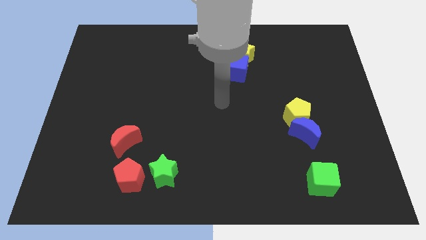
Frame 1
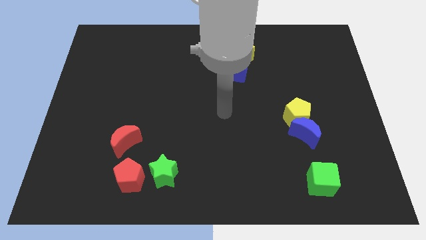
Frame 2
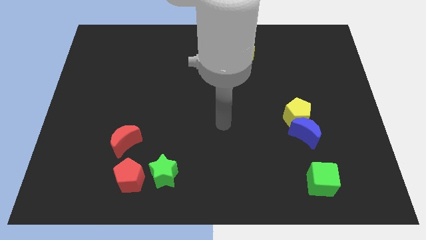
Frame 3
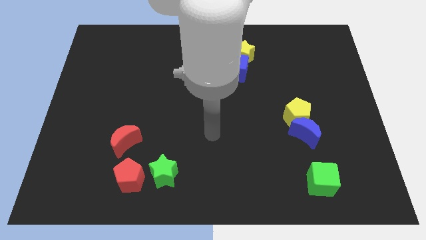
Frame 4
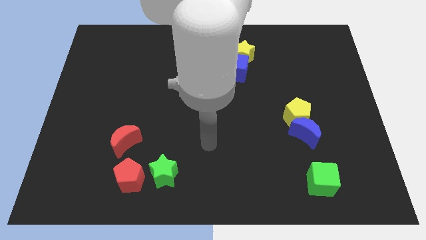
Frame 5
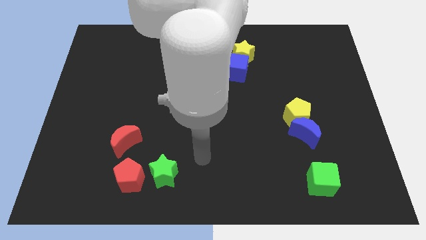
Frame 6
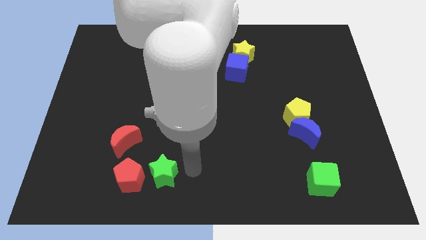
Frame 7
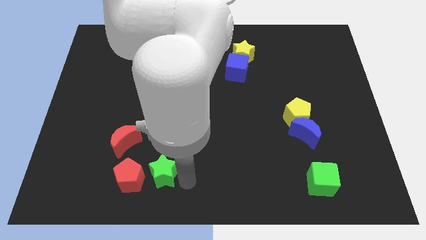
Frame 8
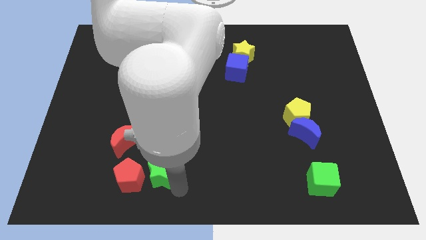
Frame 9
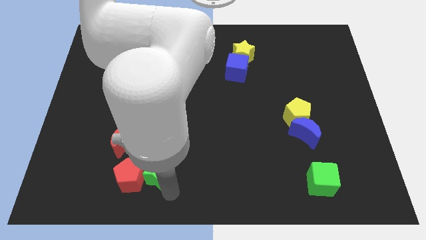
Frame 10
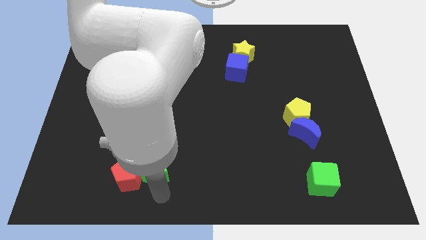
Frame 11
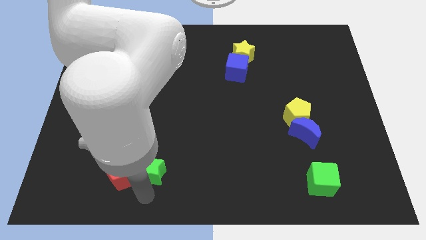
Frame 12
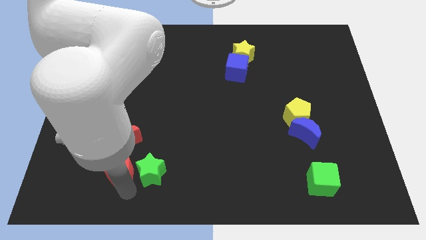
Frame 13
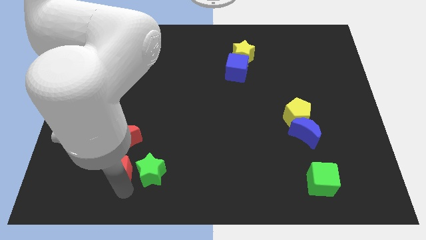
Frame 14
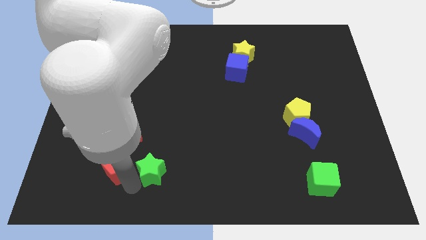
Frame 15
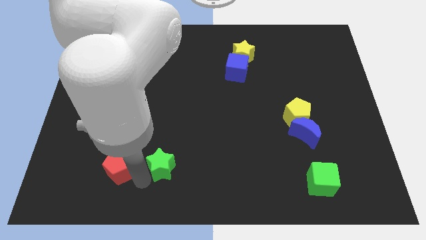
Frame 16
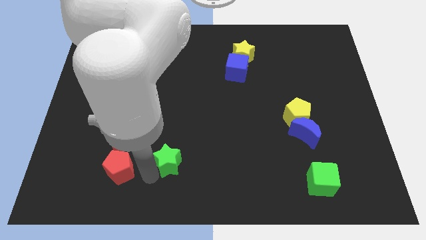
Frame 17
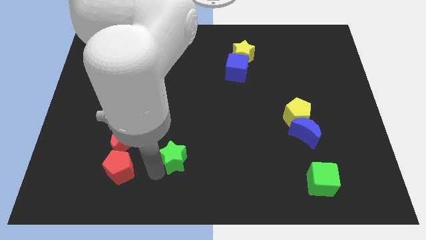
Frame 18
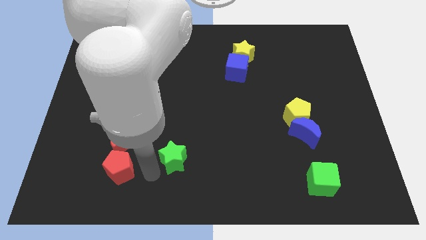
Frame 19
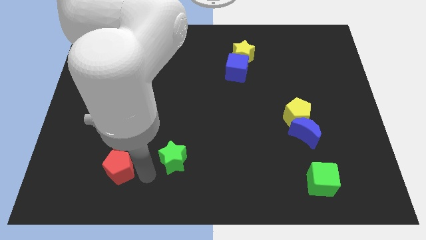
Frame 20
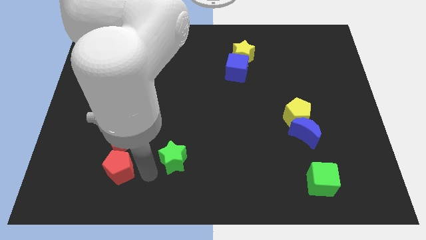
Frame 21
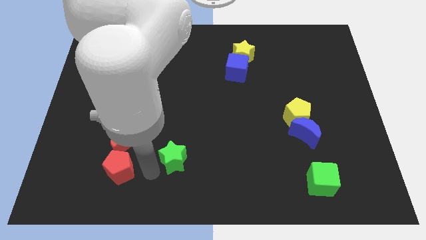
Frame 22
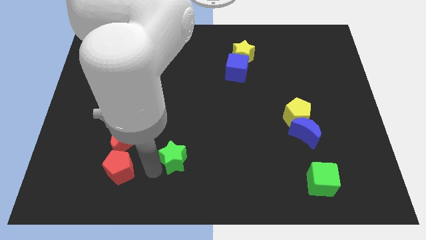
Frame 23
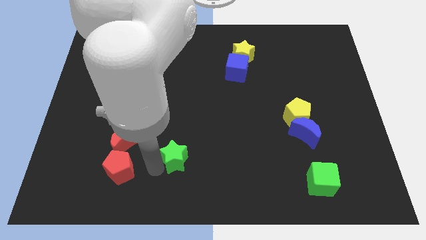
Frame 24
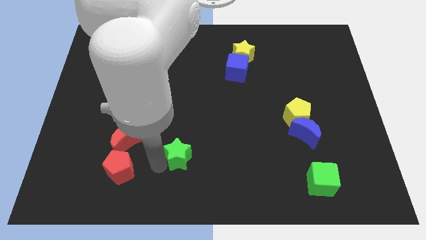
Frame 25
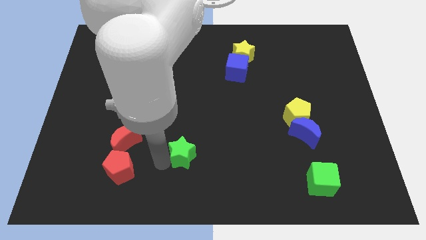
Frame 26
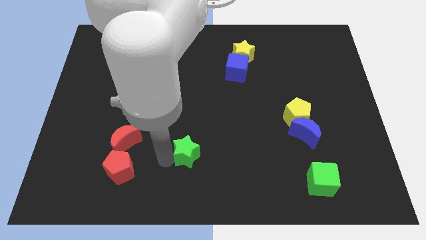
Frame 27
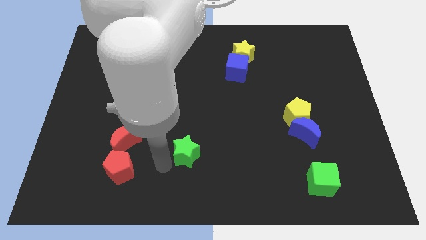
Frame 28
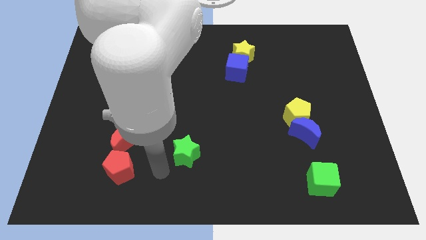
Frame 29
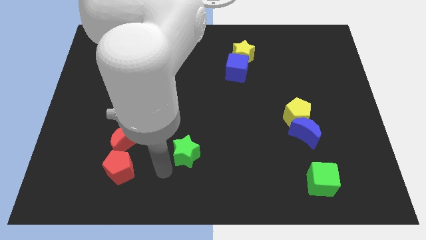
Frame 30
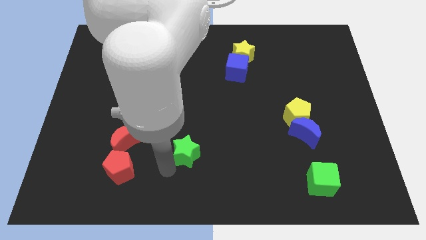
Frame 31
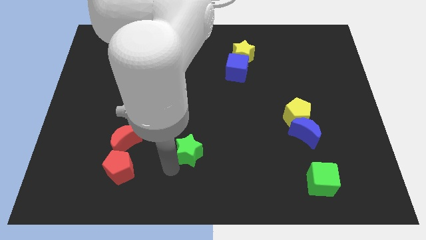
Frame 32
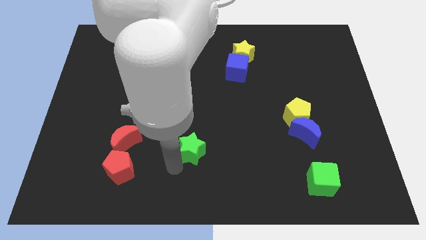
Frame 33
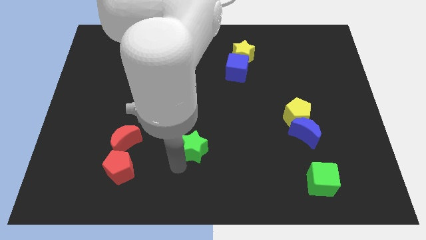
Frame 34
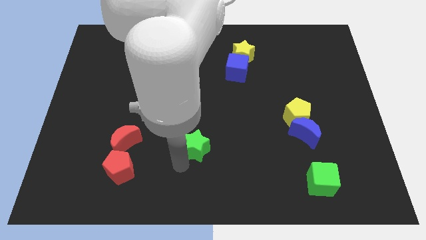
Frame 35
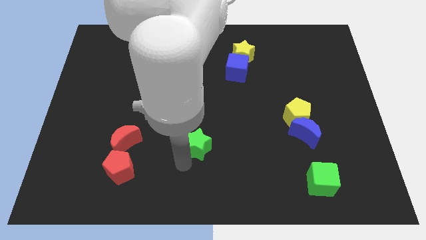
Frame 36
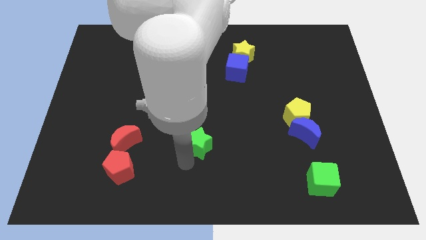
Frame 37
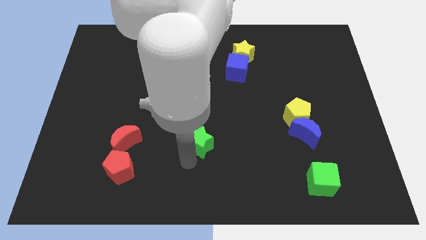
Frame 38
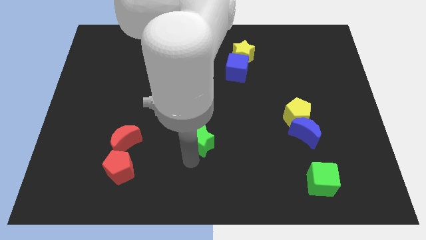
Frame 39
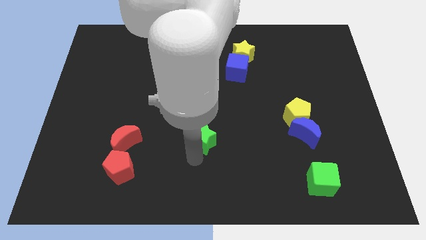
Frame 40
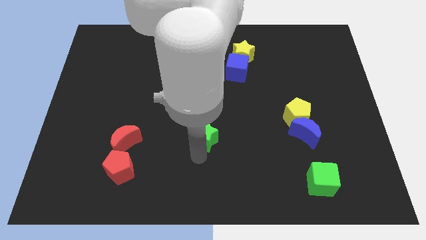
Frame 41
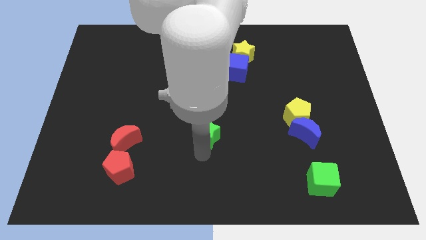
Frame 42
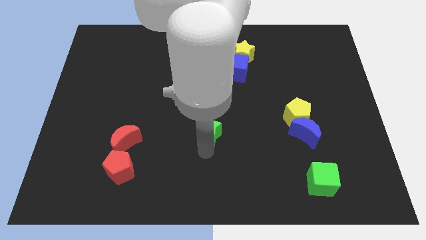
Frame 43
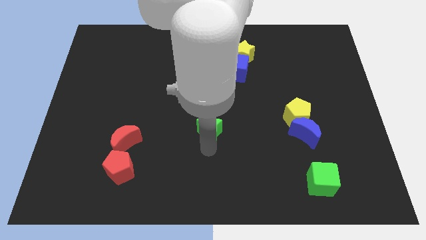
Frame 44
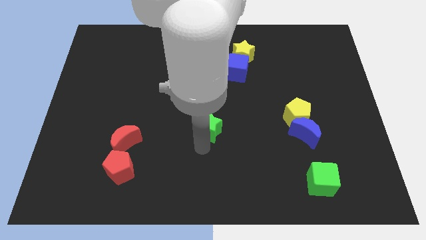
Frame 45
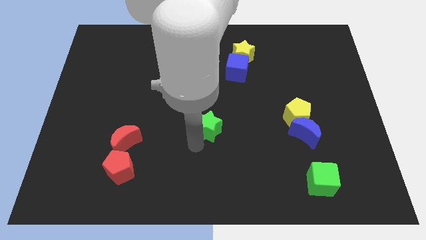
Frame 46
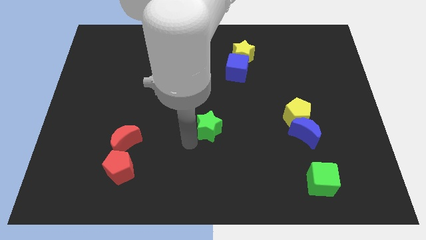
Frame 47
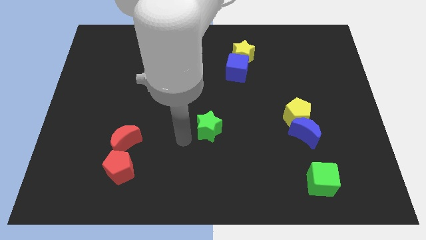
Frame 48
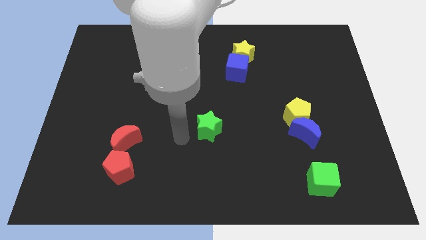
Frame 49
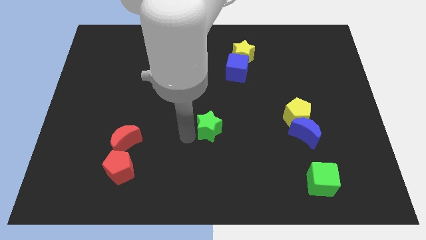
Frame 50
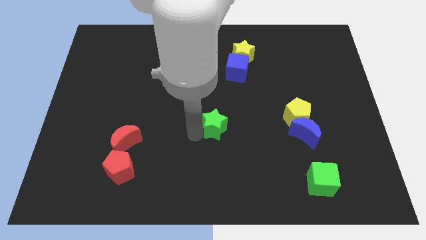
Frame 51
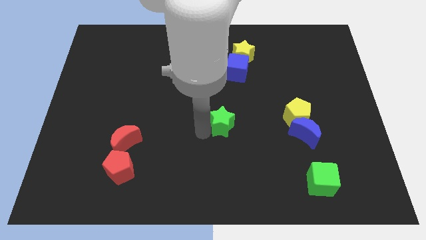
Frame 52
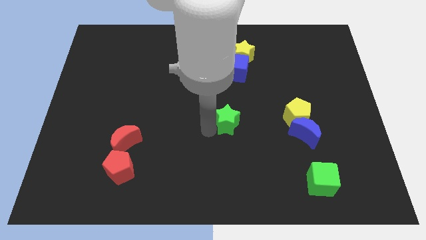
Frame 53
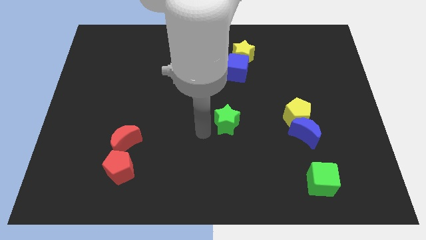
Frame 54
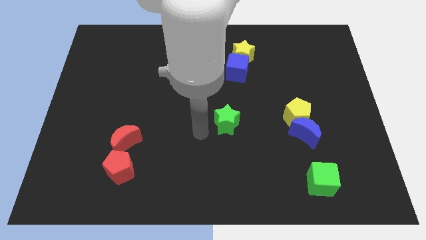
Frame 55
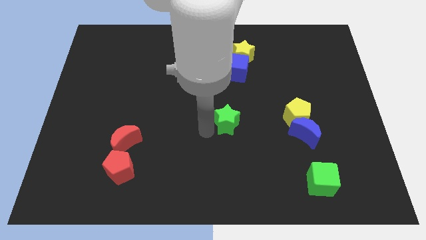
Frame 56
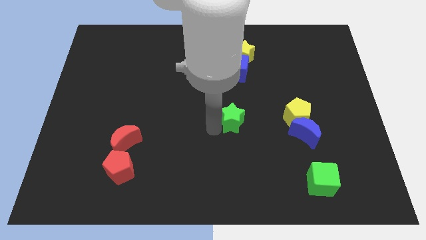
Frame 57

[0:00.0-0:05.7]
push the green star to the left side of the yellow pentagon

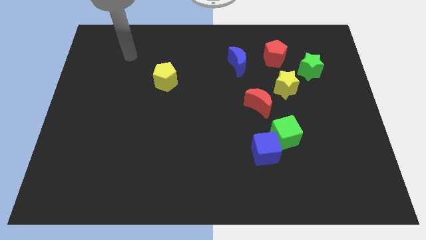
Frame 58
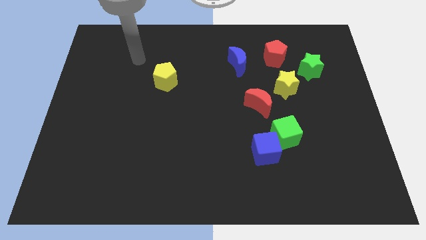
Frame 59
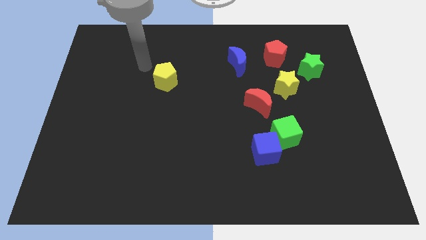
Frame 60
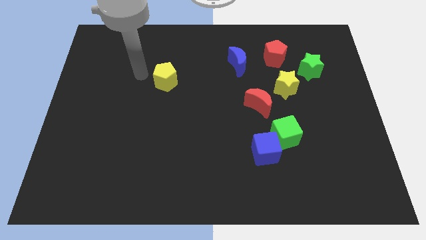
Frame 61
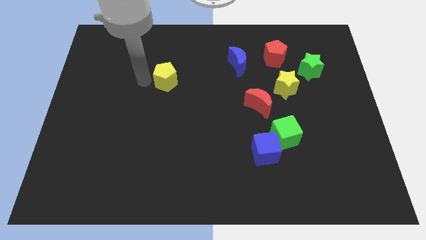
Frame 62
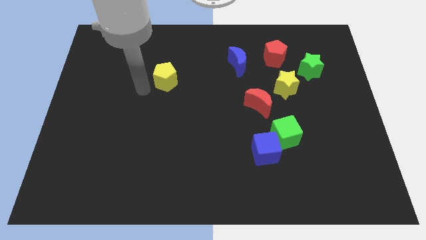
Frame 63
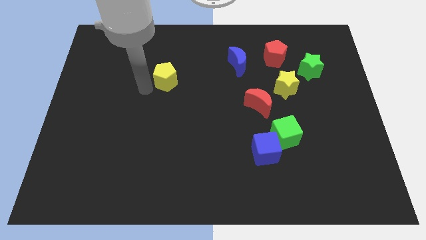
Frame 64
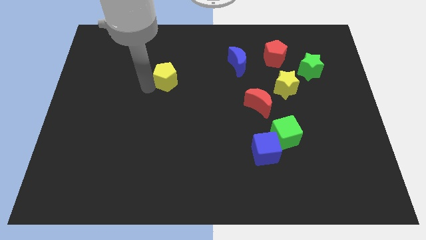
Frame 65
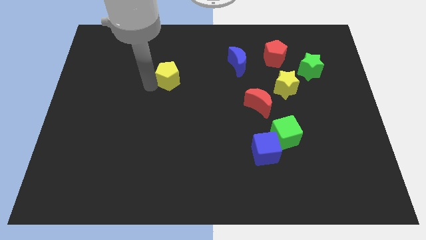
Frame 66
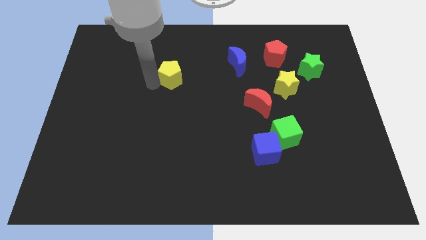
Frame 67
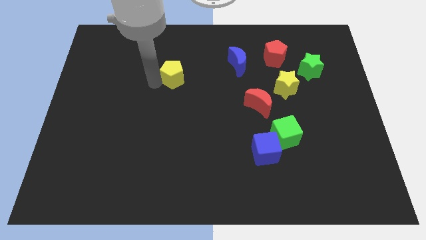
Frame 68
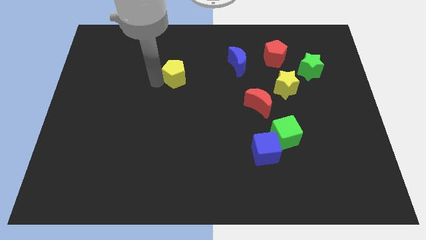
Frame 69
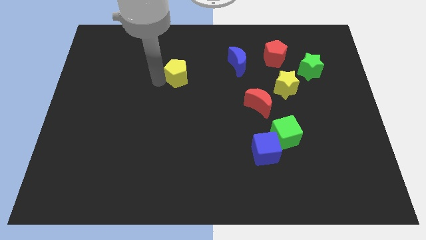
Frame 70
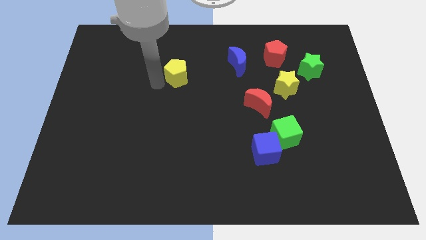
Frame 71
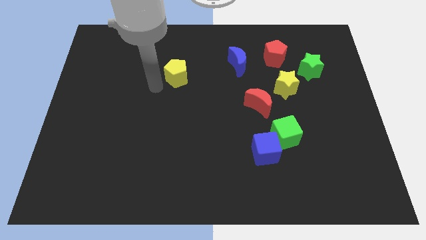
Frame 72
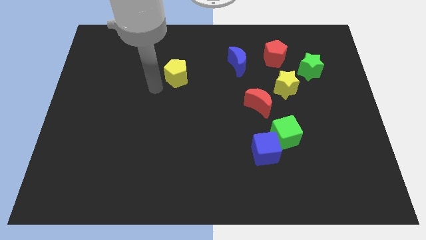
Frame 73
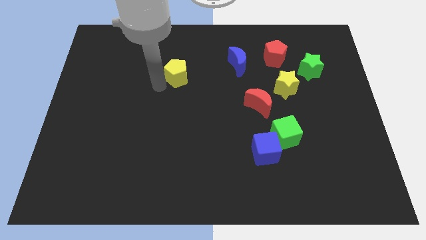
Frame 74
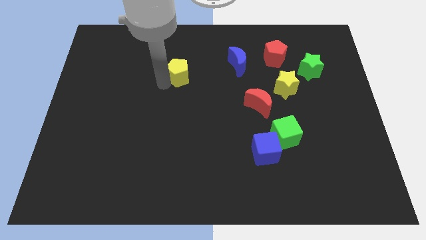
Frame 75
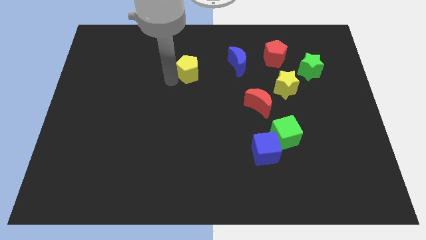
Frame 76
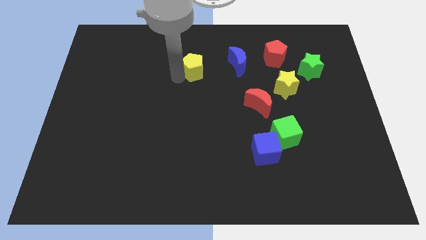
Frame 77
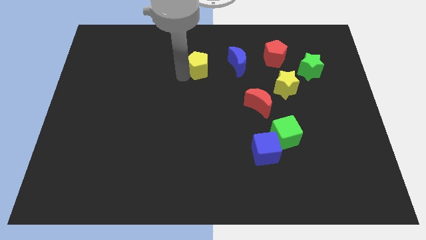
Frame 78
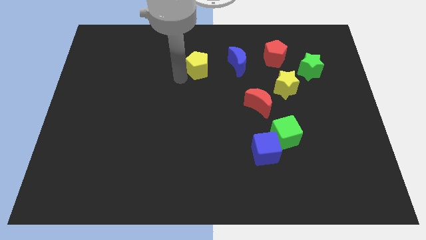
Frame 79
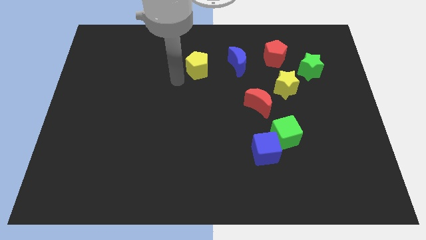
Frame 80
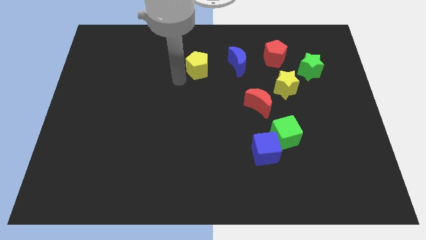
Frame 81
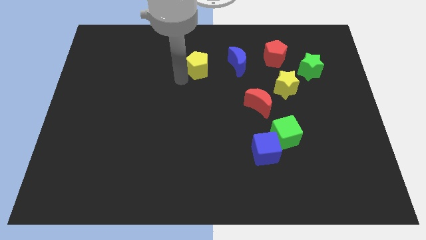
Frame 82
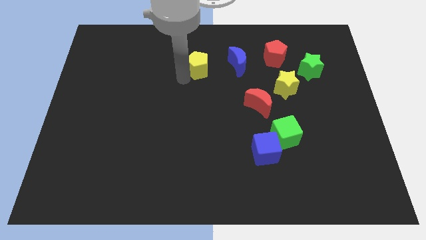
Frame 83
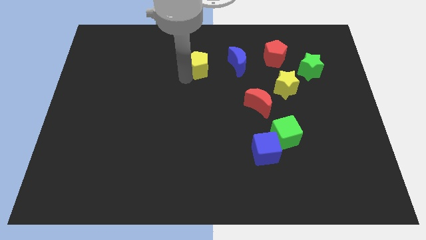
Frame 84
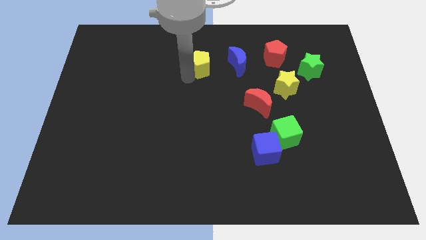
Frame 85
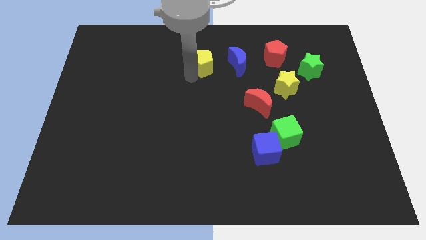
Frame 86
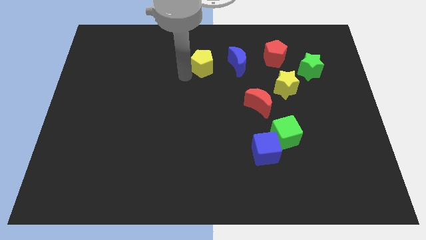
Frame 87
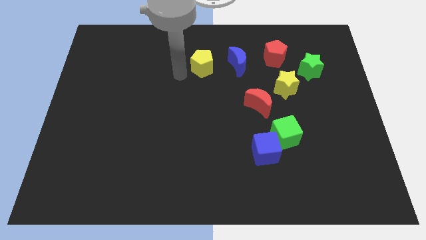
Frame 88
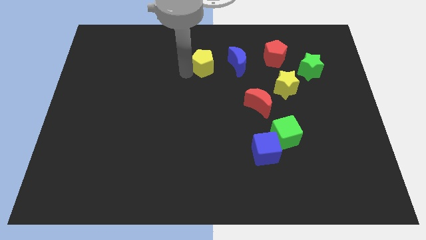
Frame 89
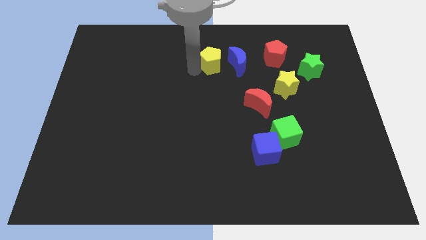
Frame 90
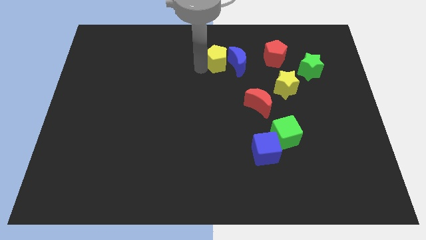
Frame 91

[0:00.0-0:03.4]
put the yellow pentagon left of the red pentagon
